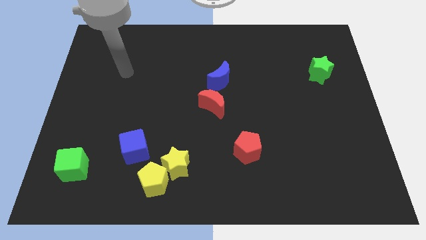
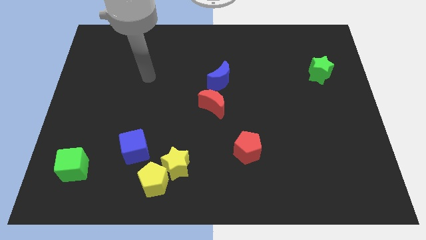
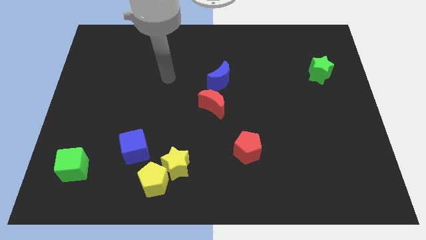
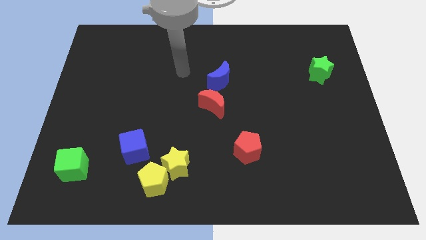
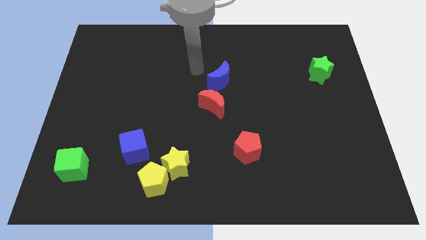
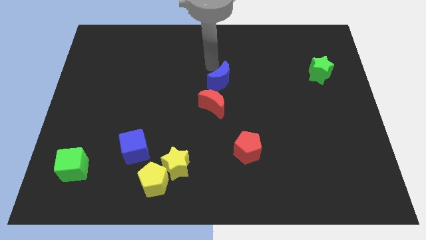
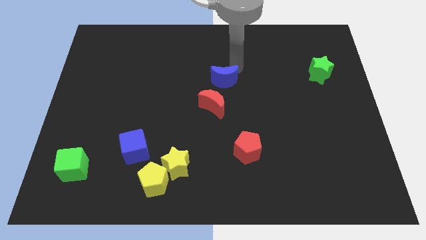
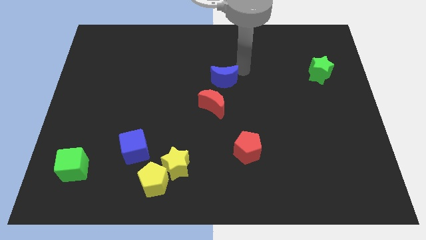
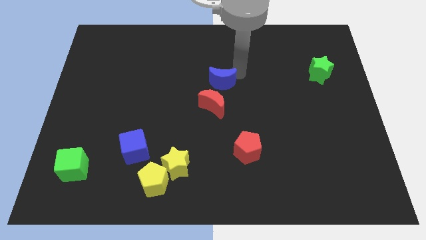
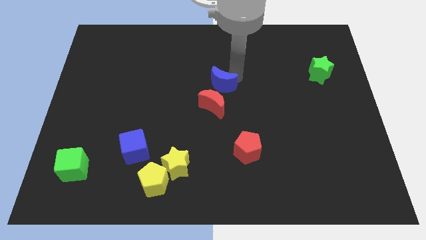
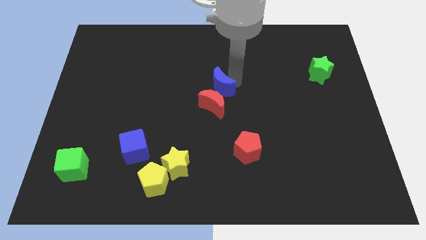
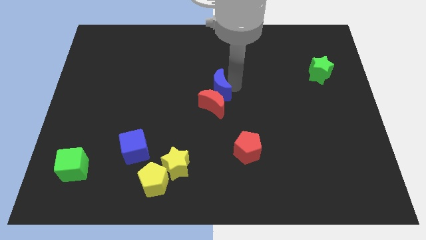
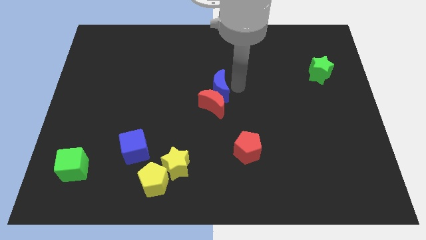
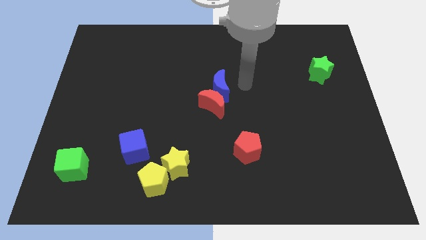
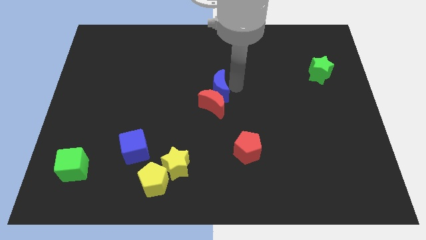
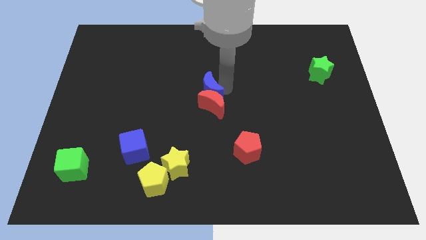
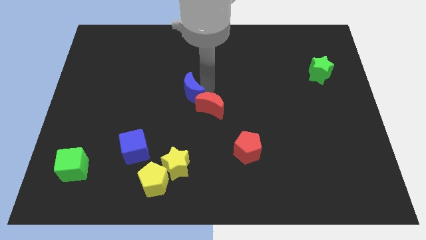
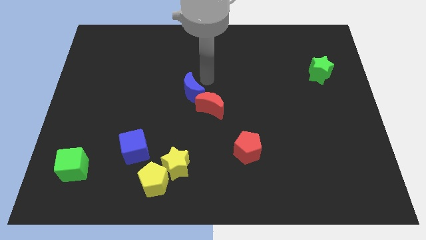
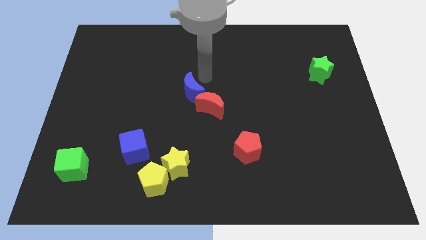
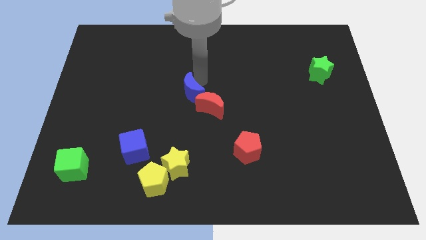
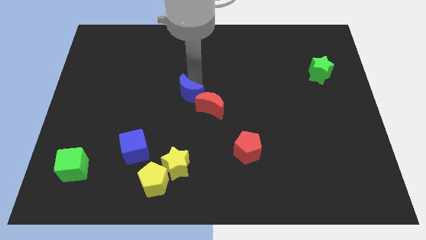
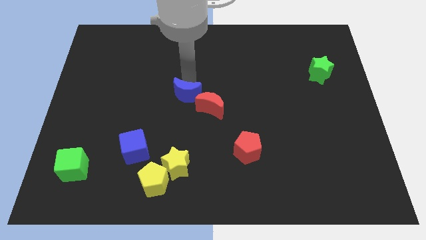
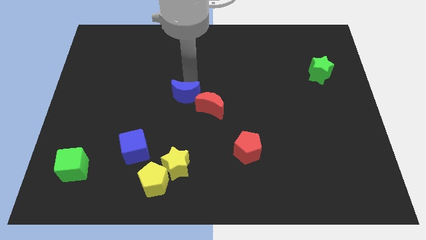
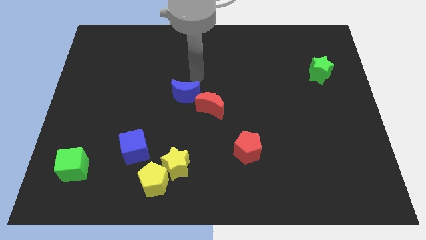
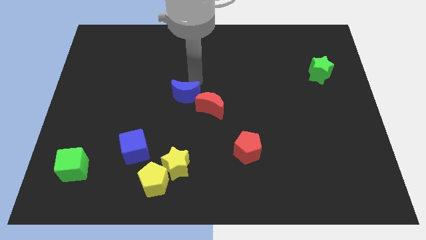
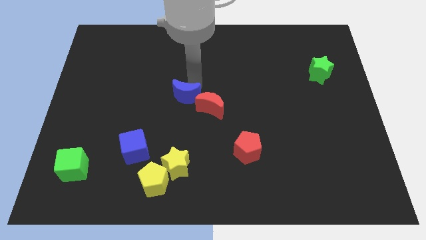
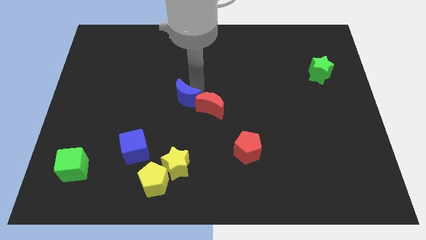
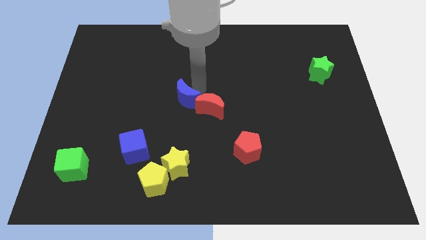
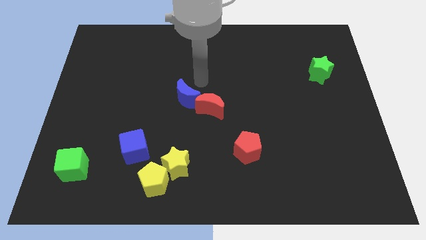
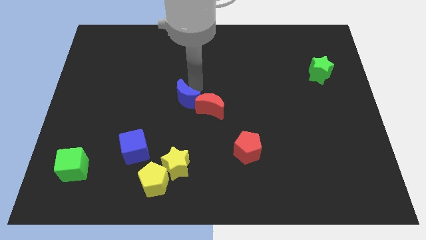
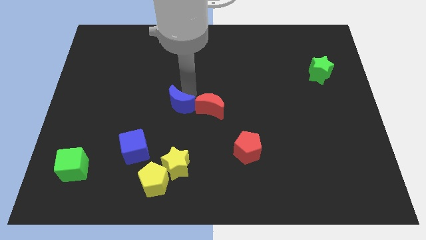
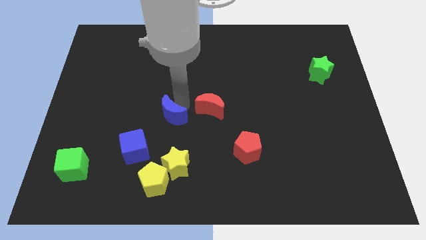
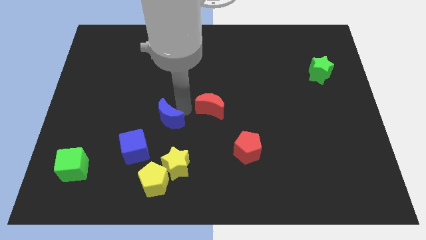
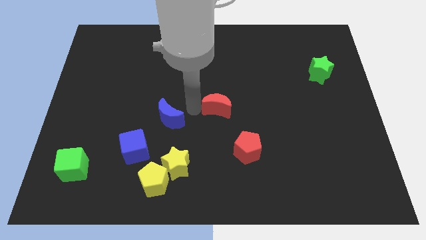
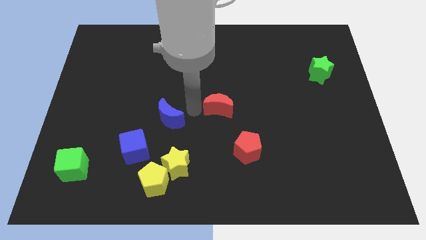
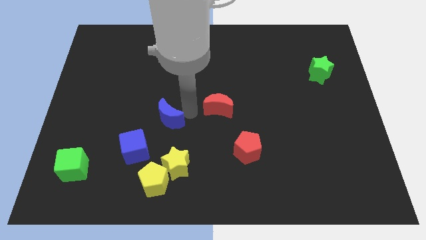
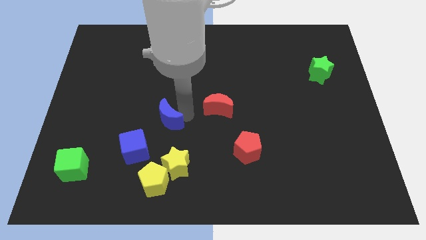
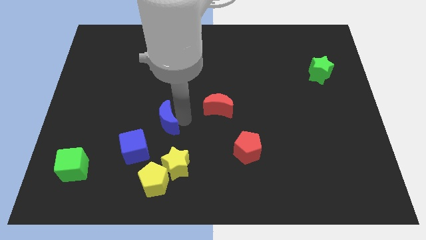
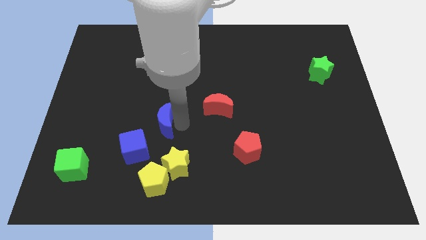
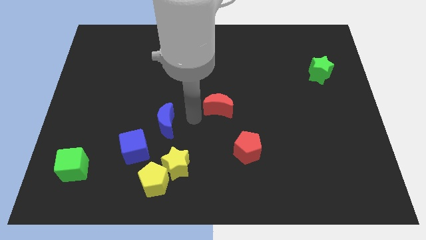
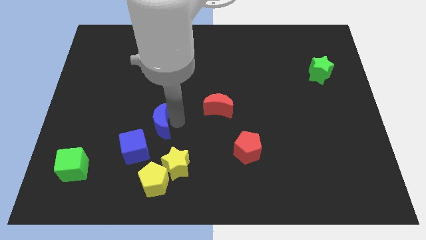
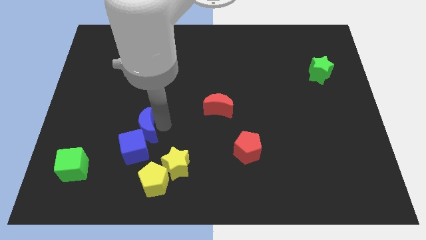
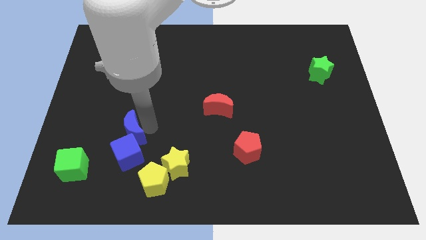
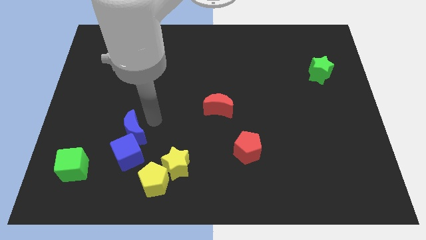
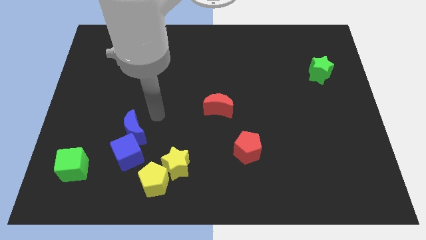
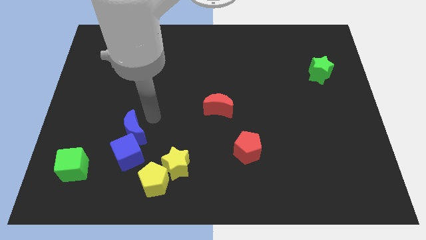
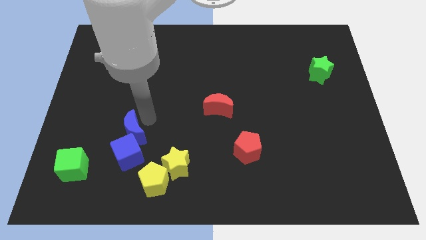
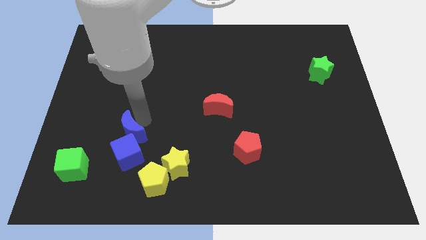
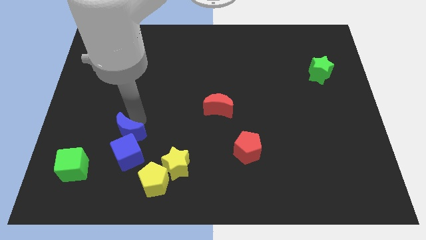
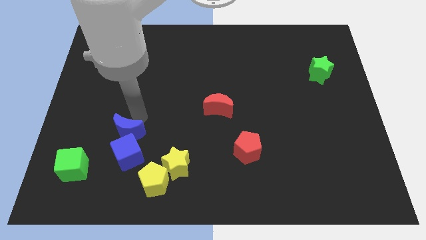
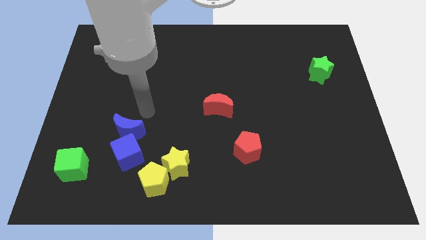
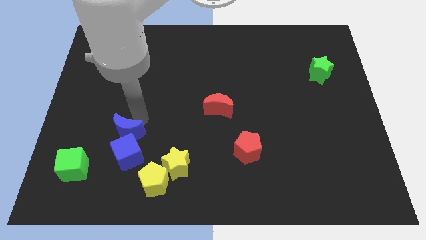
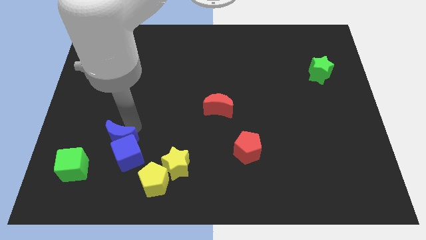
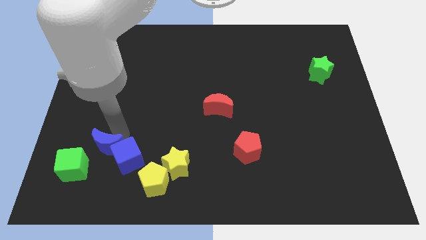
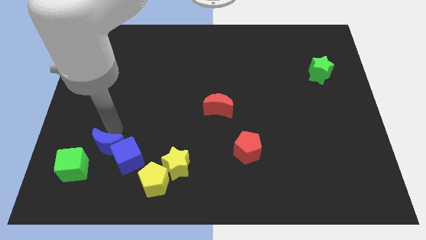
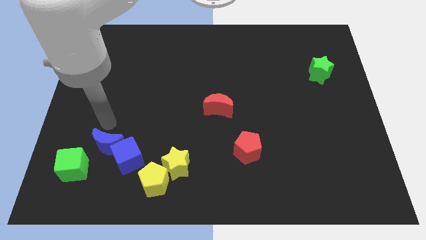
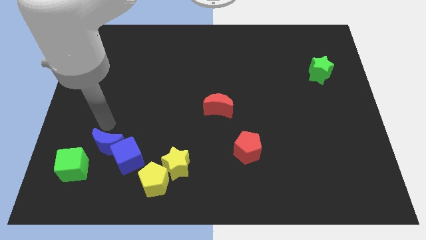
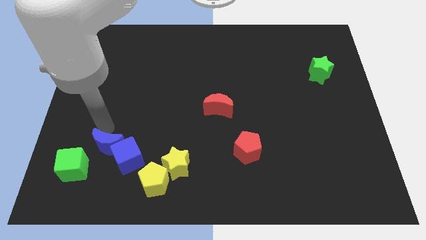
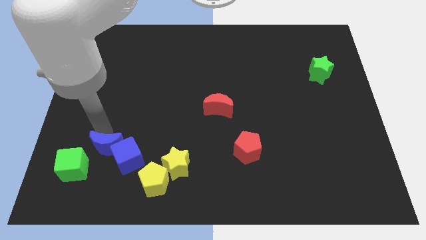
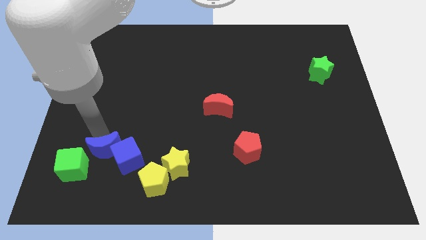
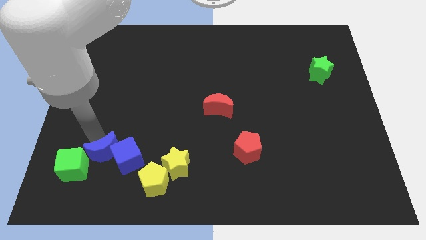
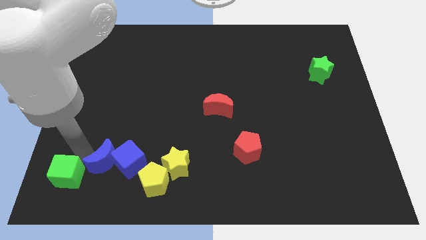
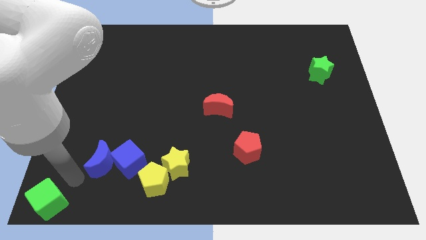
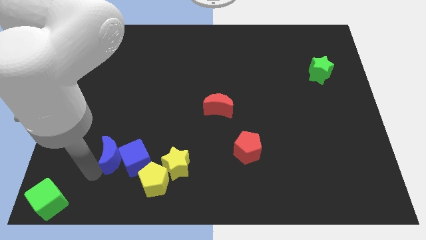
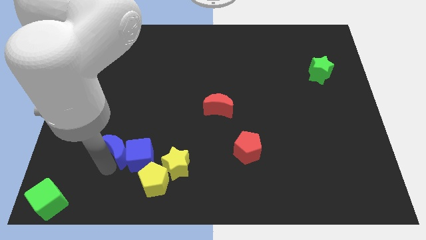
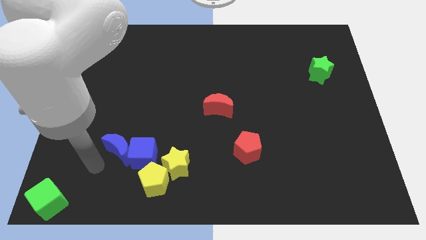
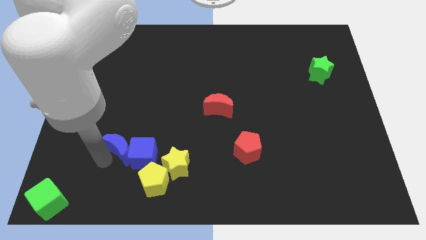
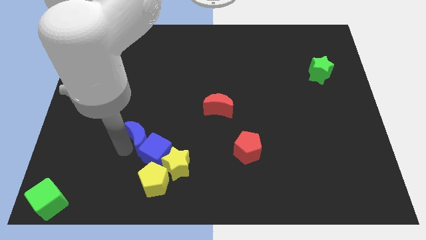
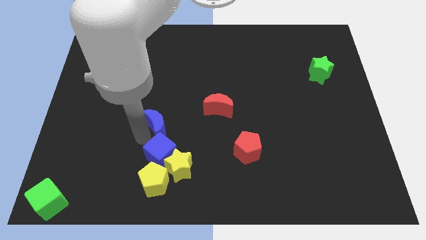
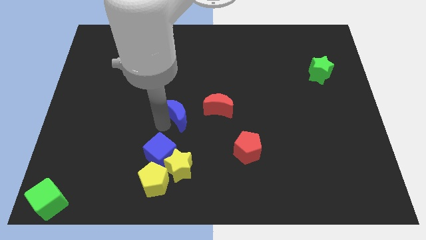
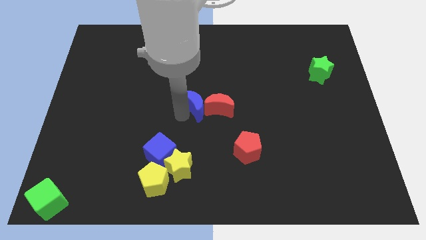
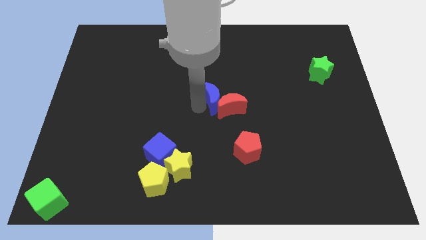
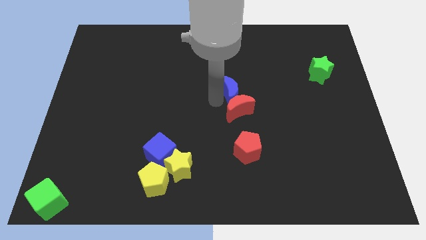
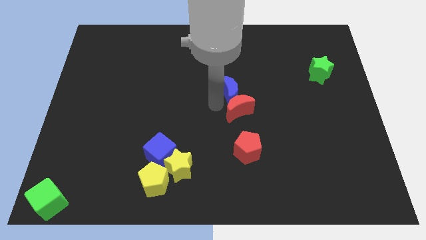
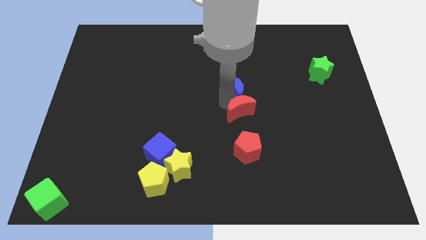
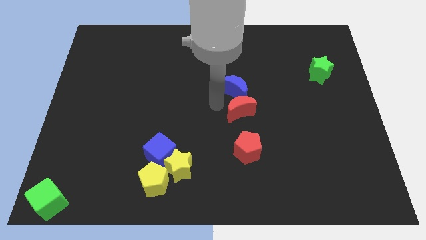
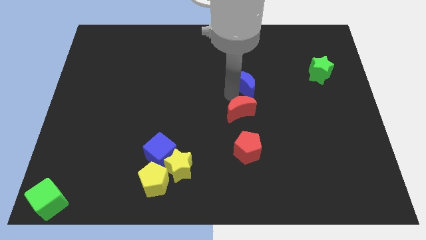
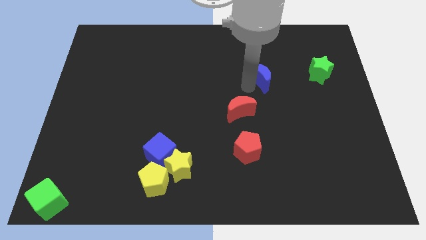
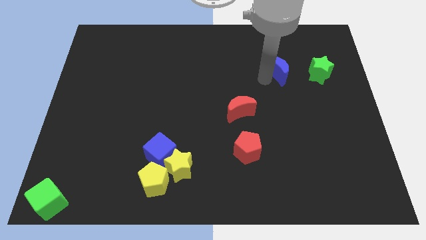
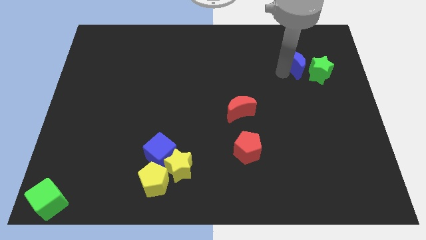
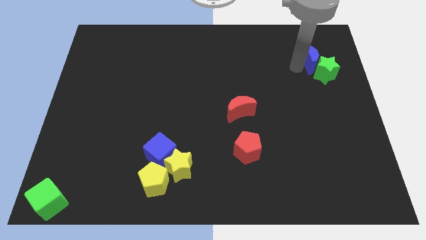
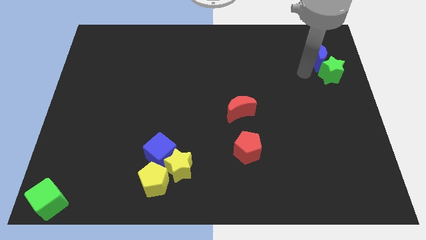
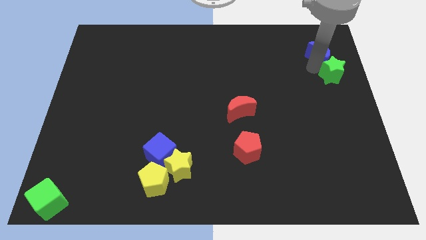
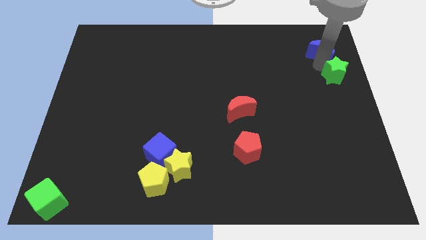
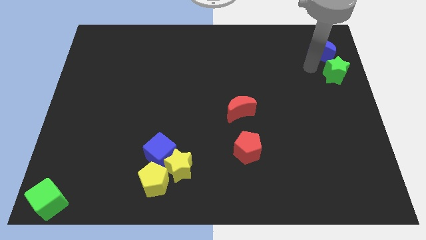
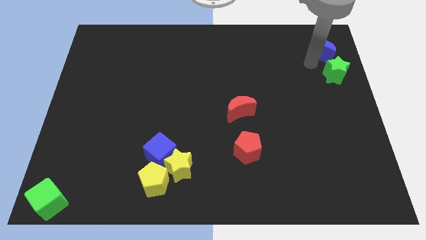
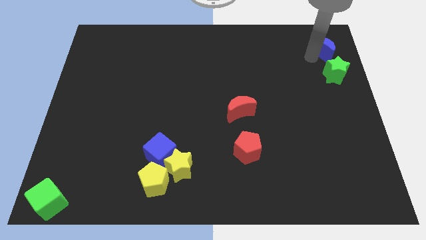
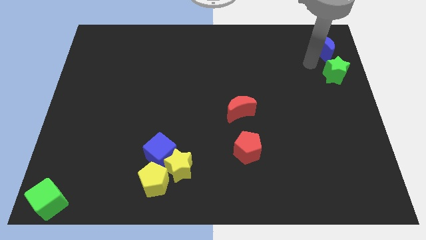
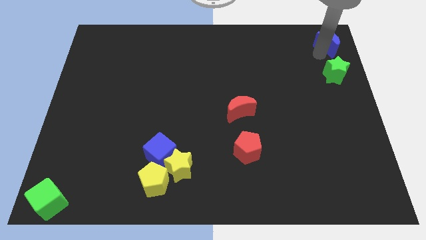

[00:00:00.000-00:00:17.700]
push the blue moon to the top right of the board
